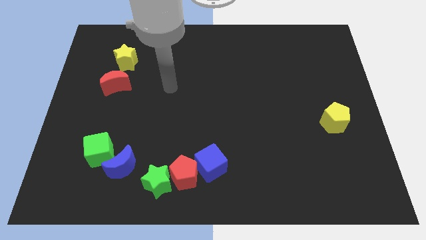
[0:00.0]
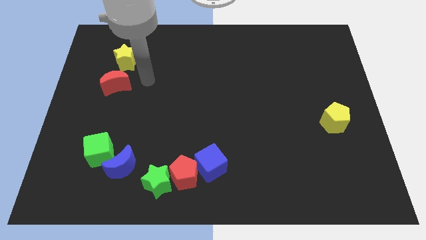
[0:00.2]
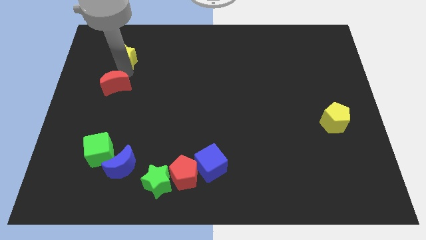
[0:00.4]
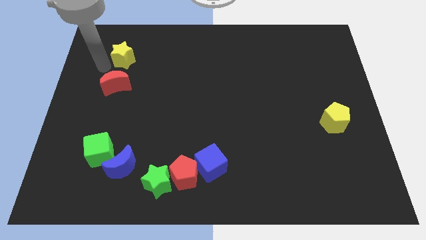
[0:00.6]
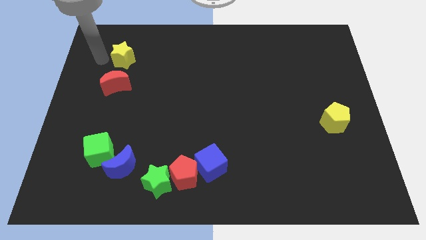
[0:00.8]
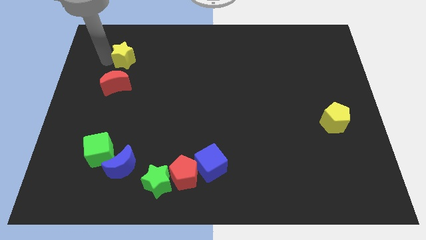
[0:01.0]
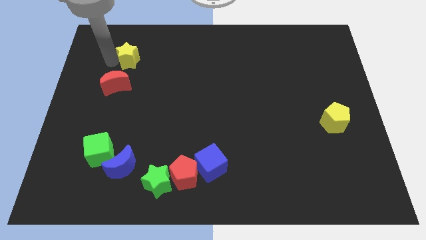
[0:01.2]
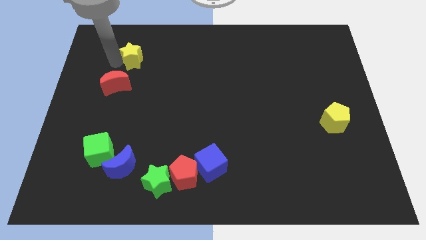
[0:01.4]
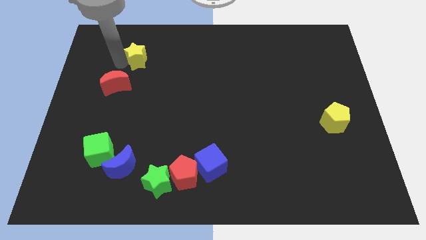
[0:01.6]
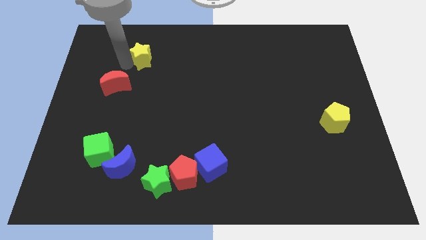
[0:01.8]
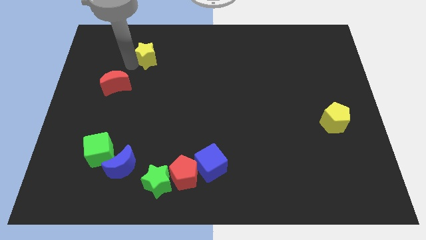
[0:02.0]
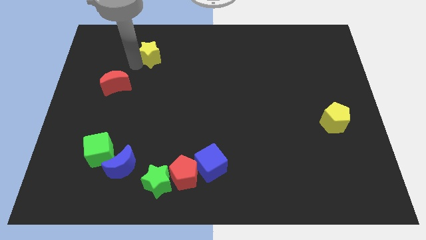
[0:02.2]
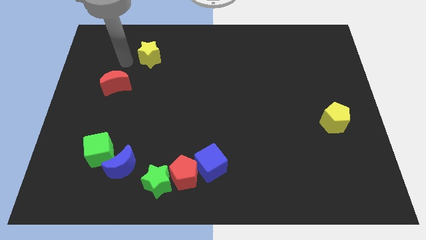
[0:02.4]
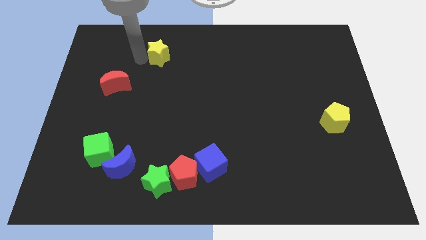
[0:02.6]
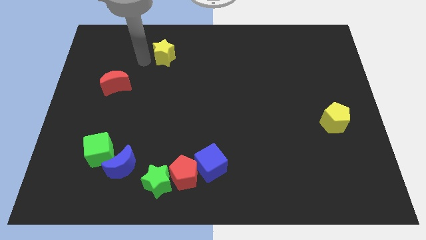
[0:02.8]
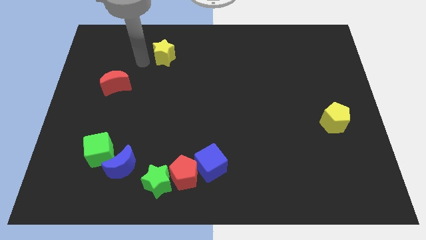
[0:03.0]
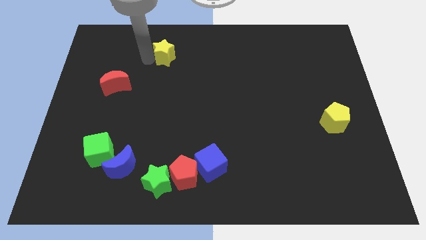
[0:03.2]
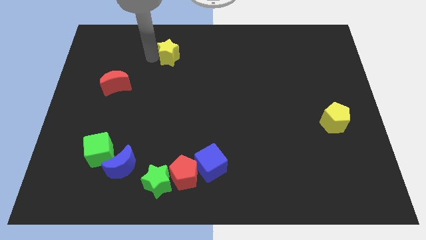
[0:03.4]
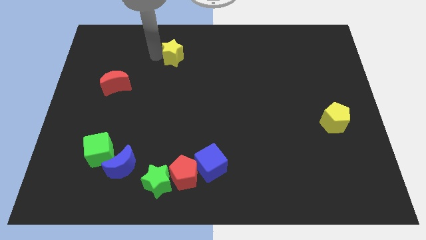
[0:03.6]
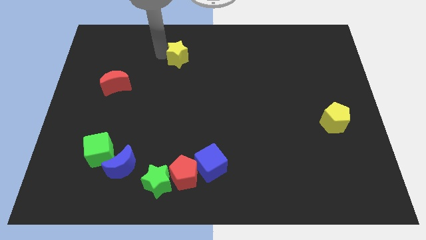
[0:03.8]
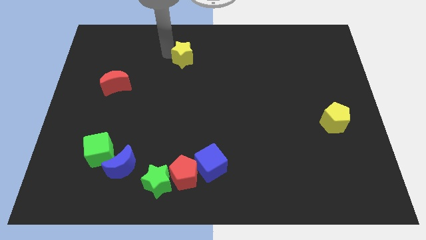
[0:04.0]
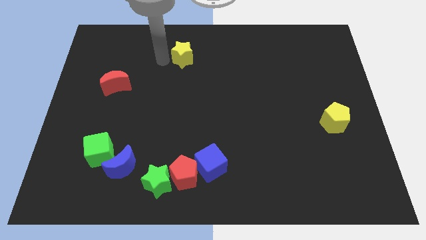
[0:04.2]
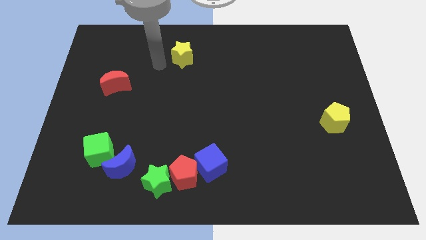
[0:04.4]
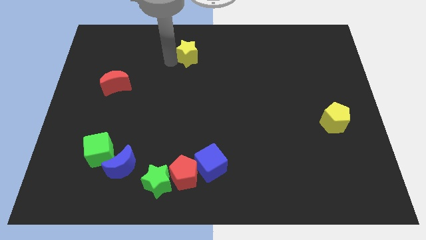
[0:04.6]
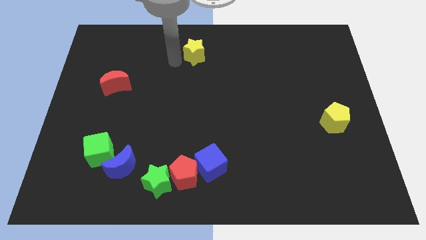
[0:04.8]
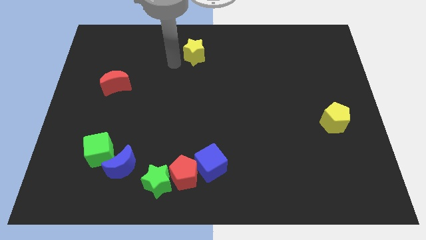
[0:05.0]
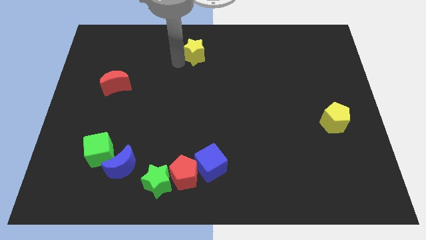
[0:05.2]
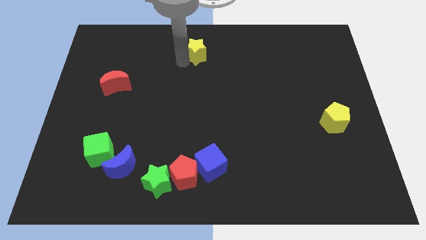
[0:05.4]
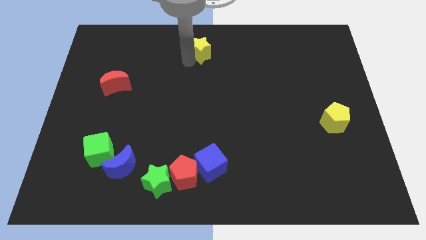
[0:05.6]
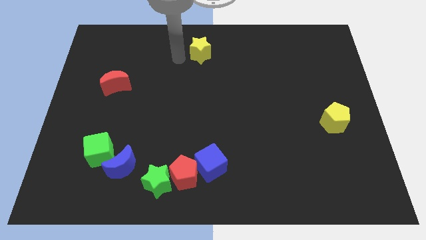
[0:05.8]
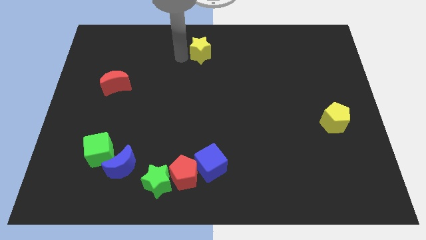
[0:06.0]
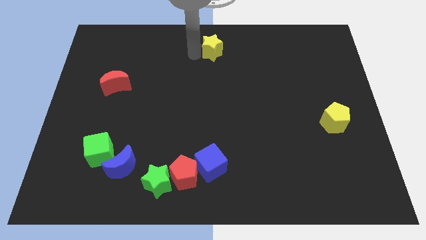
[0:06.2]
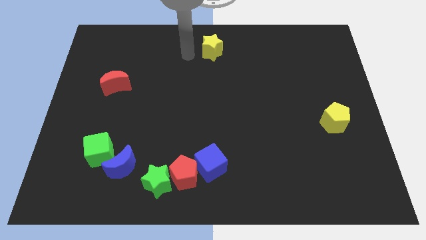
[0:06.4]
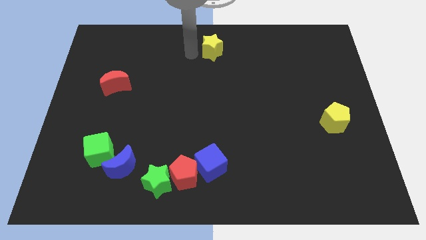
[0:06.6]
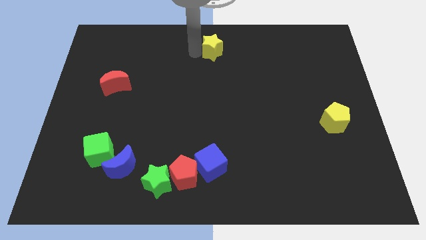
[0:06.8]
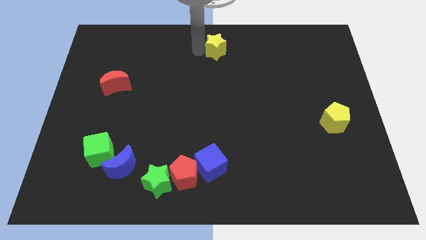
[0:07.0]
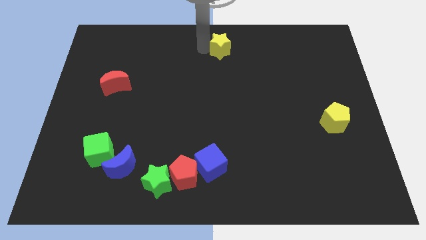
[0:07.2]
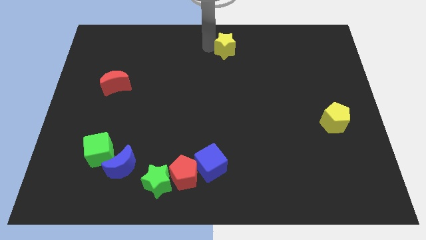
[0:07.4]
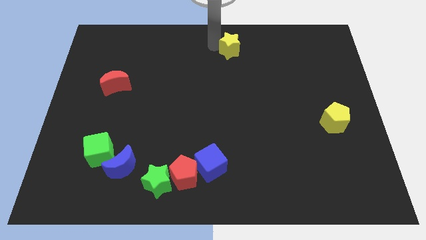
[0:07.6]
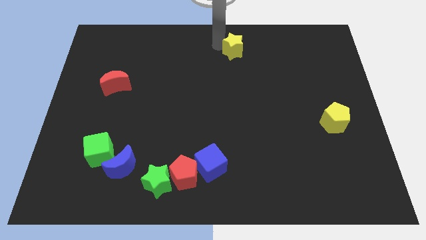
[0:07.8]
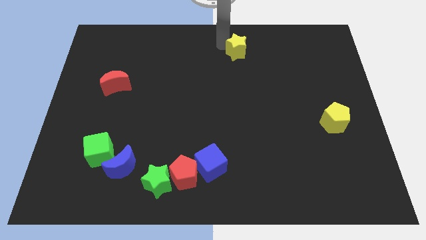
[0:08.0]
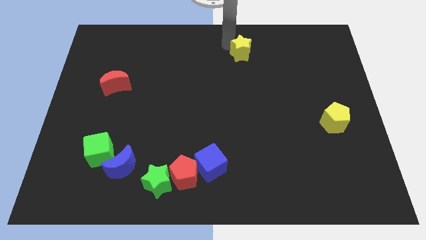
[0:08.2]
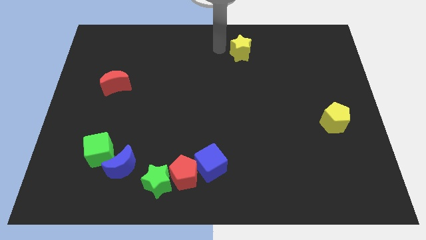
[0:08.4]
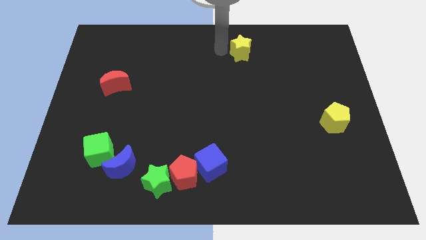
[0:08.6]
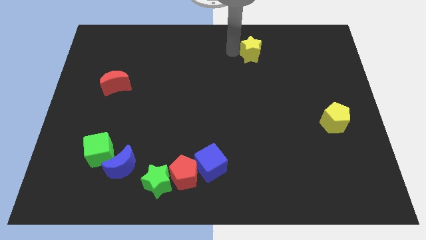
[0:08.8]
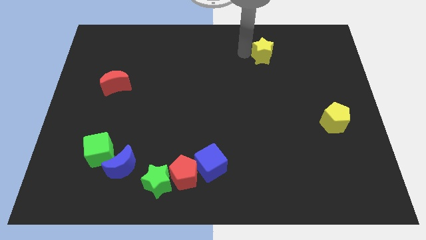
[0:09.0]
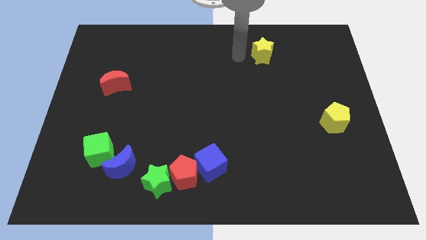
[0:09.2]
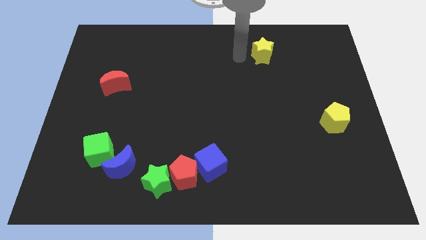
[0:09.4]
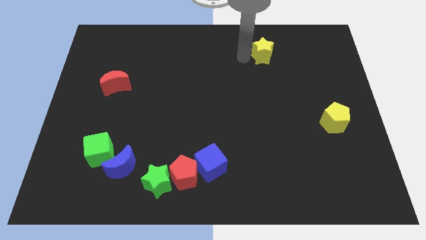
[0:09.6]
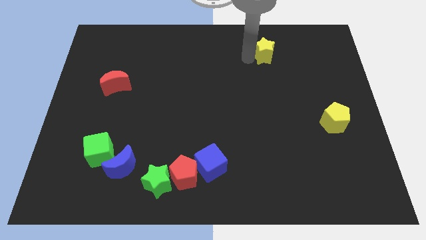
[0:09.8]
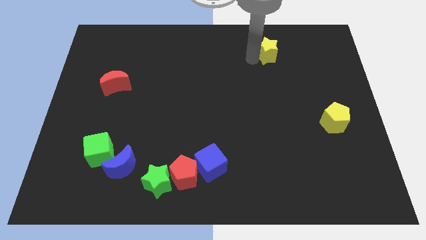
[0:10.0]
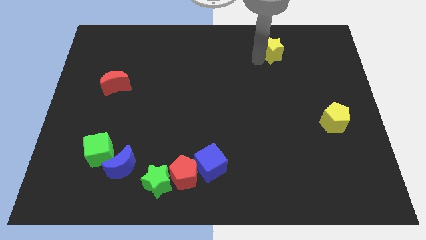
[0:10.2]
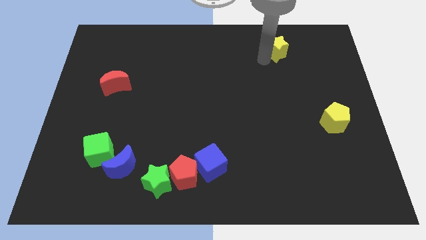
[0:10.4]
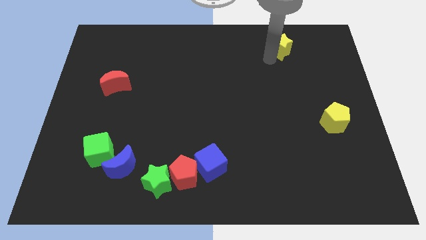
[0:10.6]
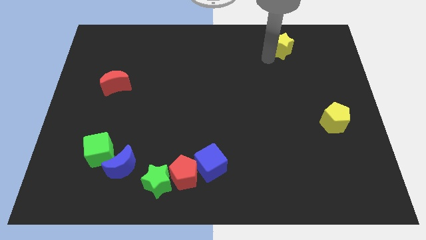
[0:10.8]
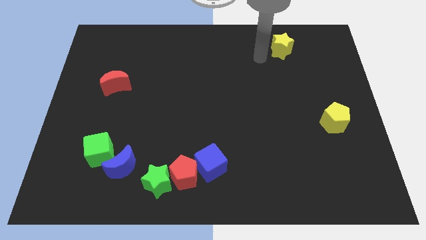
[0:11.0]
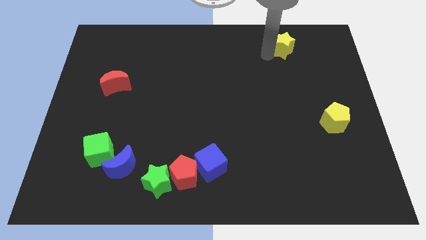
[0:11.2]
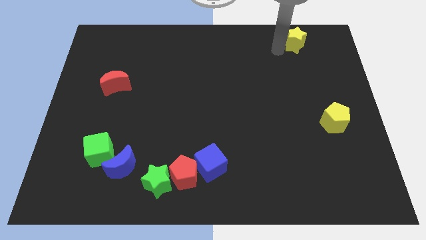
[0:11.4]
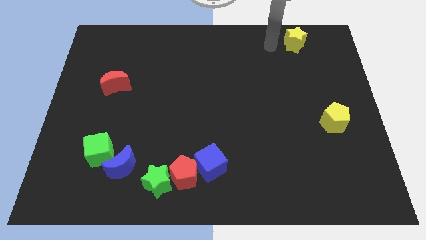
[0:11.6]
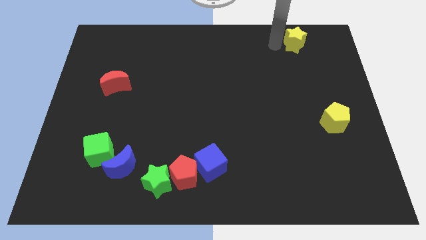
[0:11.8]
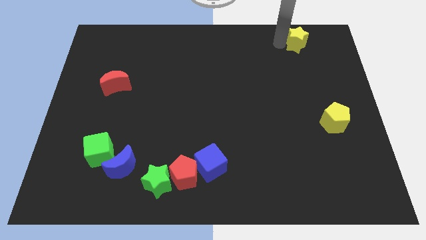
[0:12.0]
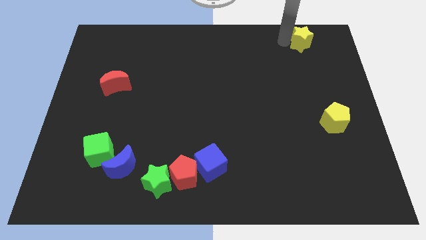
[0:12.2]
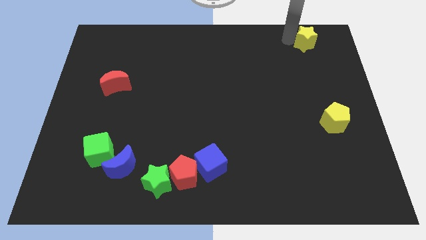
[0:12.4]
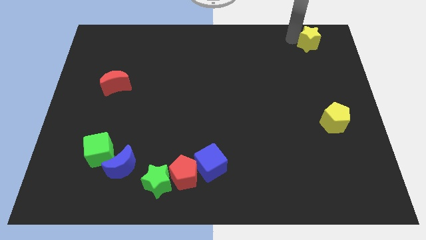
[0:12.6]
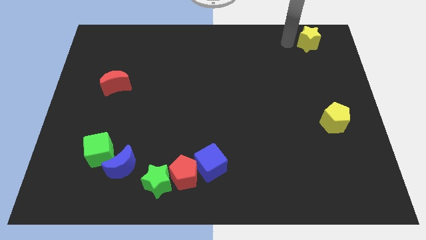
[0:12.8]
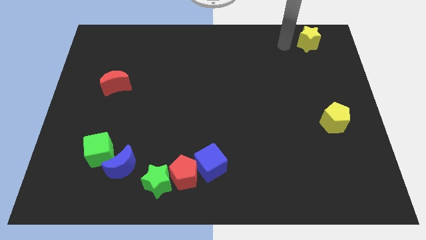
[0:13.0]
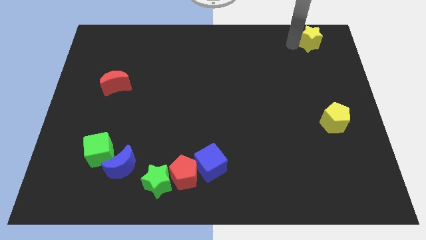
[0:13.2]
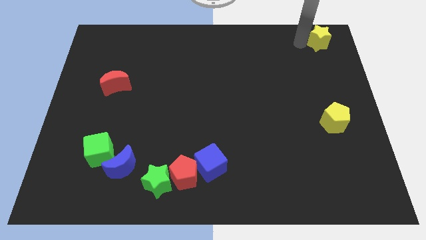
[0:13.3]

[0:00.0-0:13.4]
put the yellow star to the upper right corner
